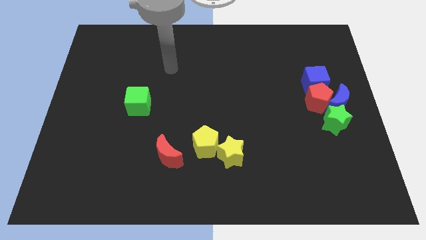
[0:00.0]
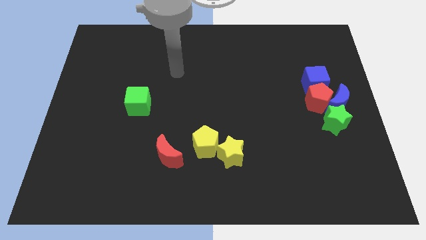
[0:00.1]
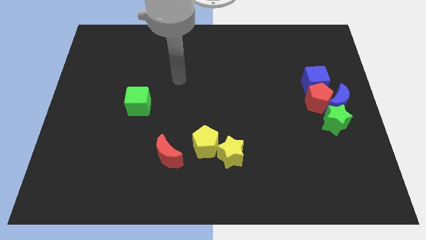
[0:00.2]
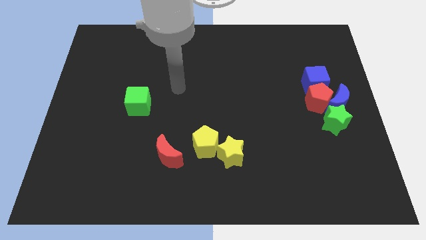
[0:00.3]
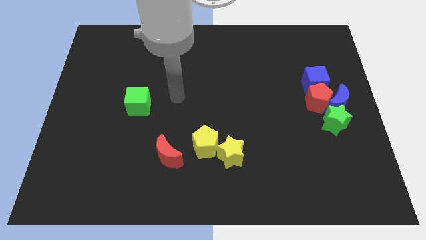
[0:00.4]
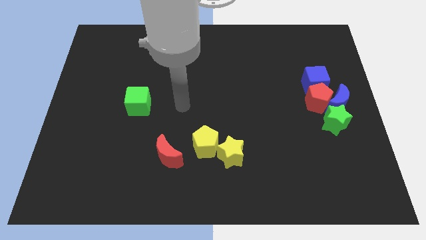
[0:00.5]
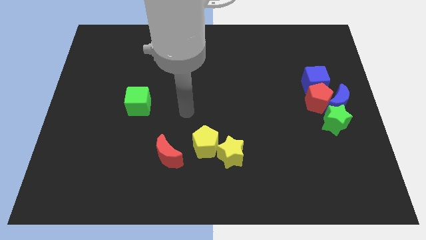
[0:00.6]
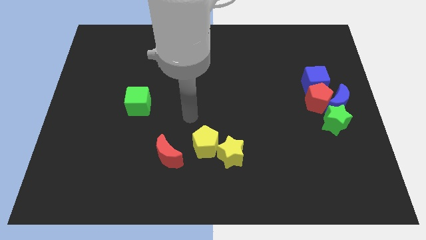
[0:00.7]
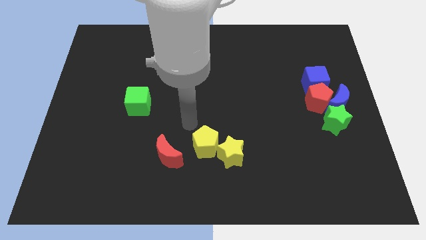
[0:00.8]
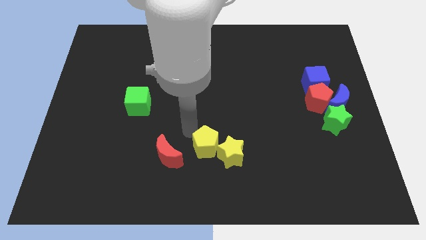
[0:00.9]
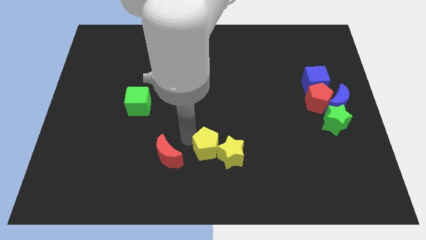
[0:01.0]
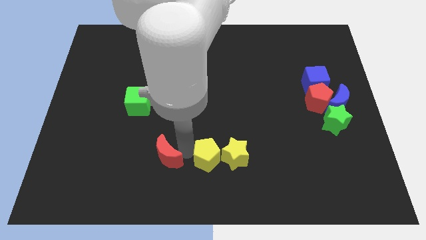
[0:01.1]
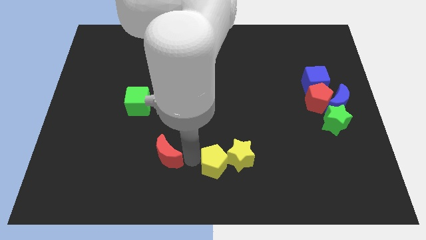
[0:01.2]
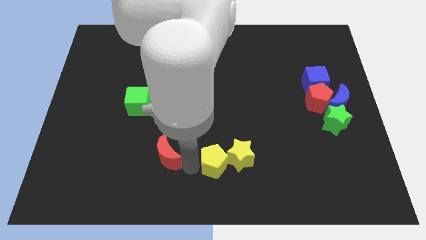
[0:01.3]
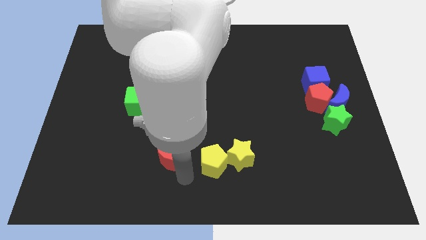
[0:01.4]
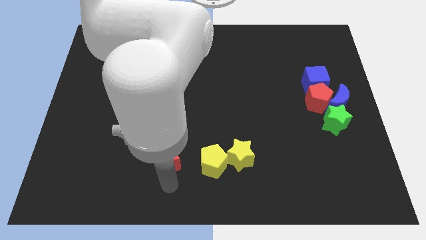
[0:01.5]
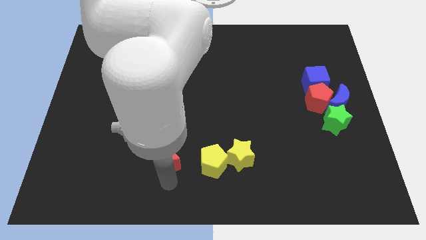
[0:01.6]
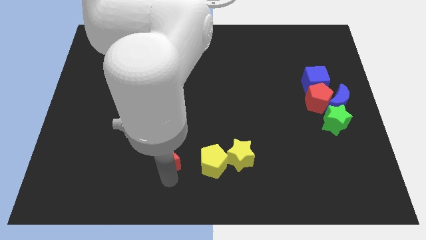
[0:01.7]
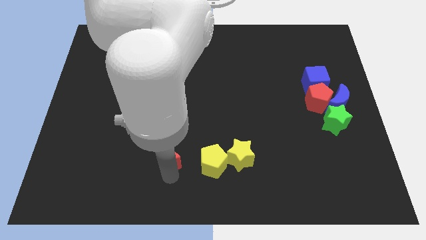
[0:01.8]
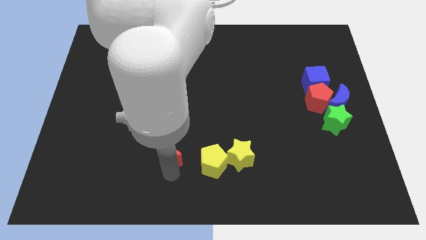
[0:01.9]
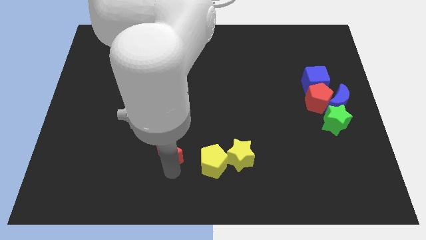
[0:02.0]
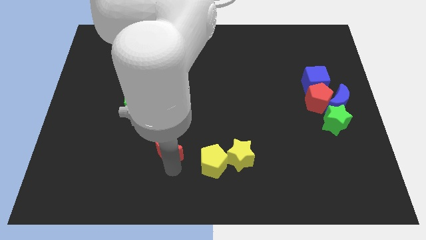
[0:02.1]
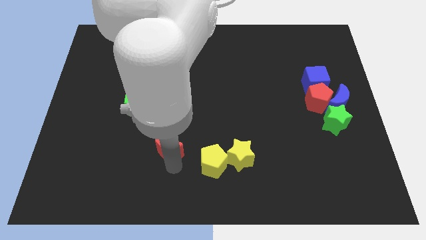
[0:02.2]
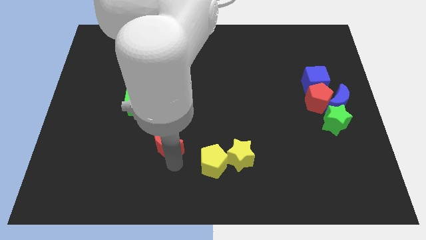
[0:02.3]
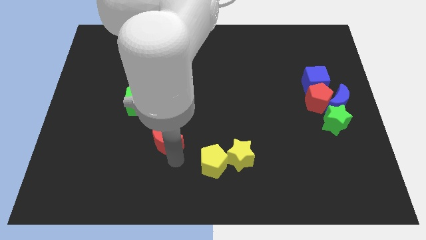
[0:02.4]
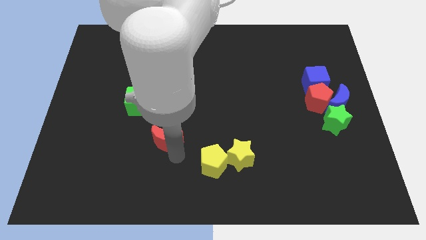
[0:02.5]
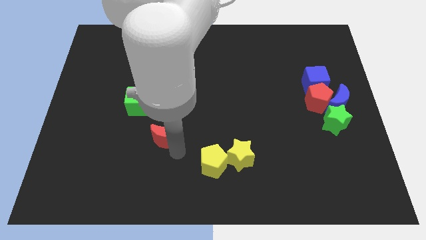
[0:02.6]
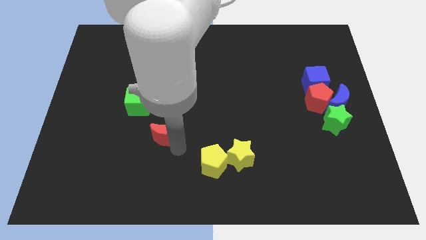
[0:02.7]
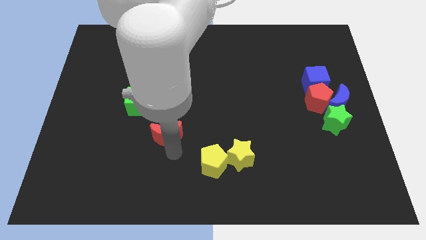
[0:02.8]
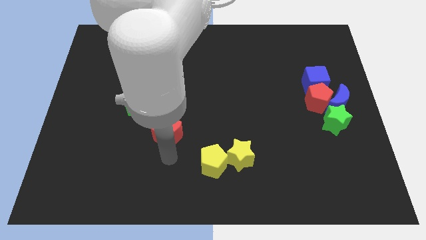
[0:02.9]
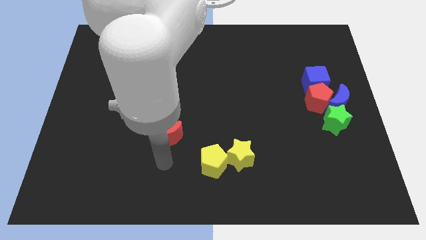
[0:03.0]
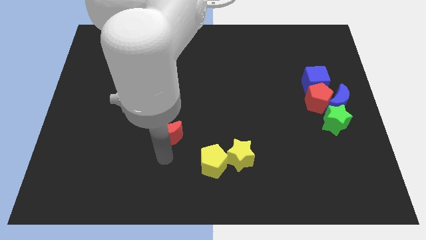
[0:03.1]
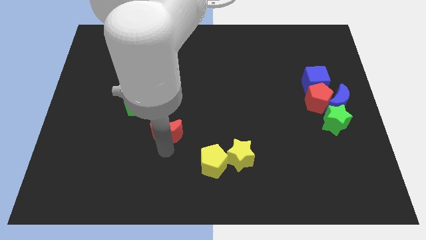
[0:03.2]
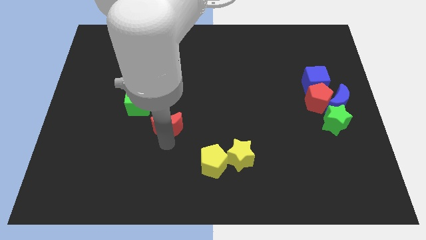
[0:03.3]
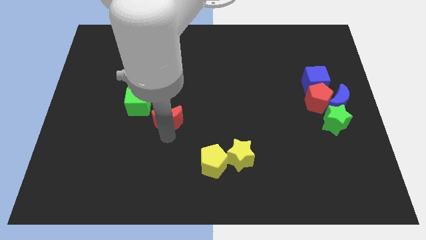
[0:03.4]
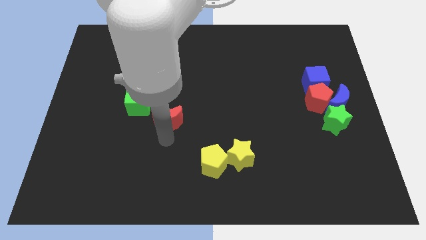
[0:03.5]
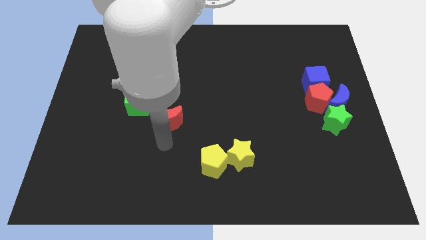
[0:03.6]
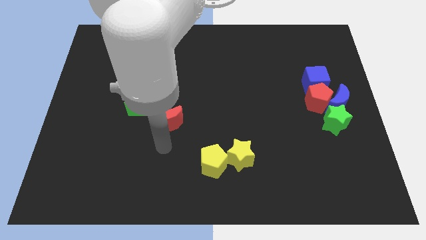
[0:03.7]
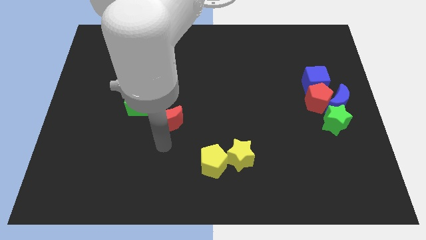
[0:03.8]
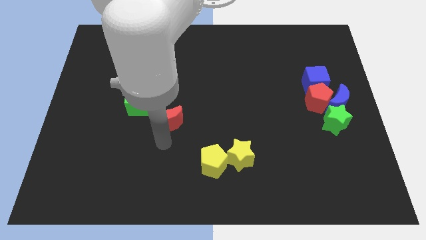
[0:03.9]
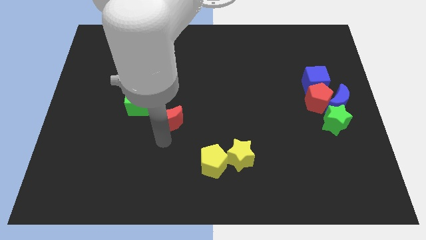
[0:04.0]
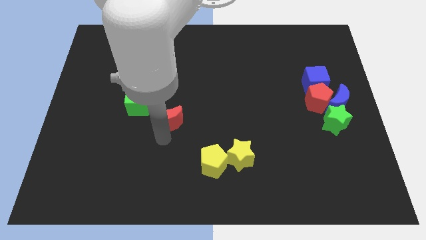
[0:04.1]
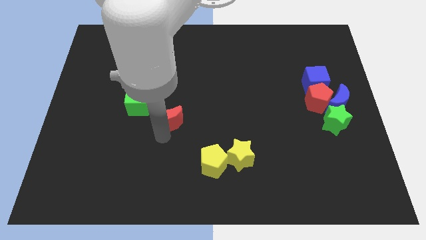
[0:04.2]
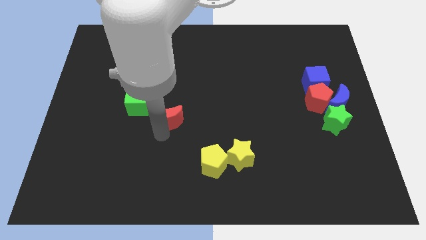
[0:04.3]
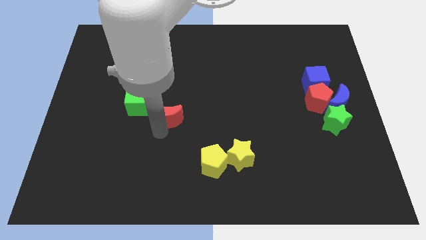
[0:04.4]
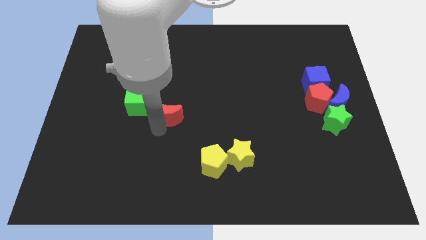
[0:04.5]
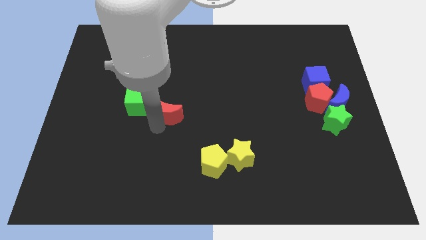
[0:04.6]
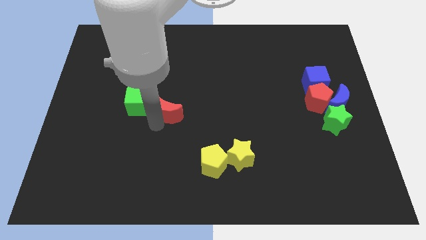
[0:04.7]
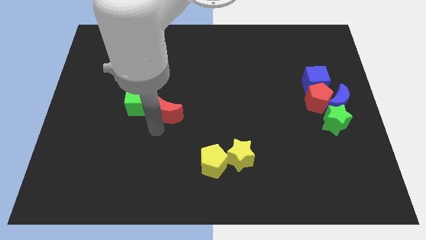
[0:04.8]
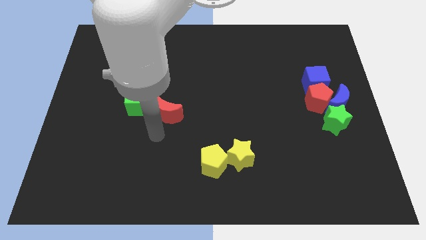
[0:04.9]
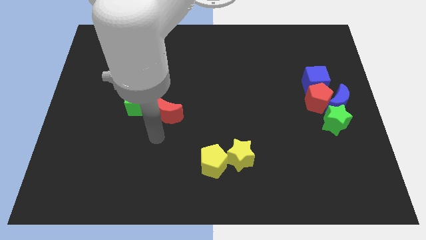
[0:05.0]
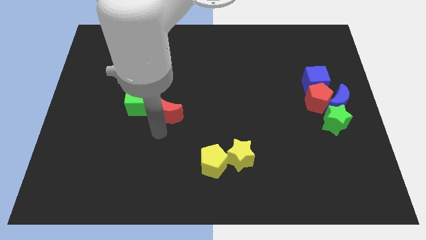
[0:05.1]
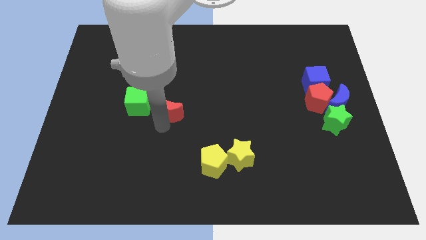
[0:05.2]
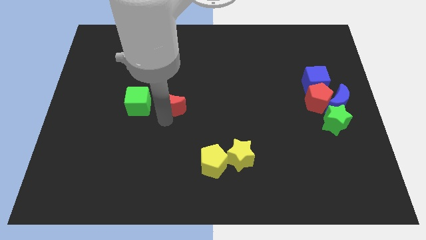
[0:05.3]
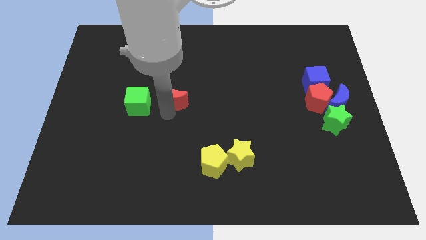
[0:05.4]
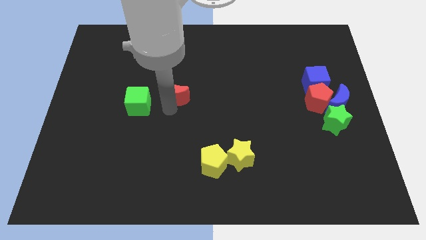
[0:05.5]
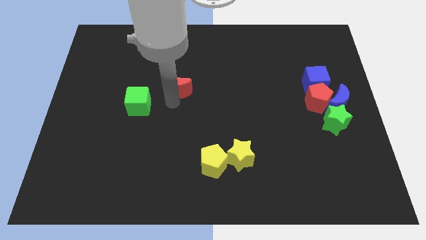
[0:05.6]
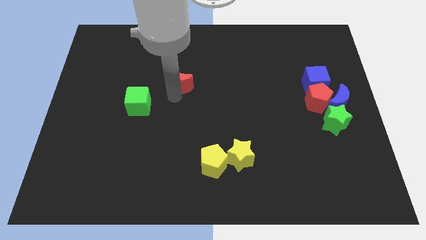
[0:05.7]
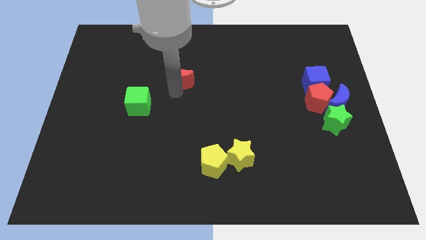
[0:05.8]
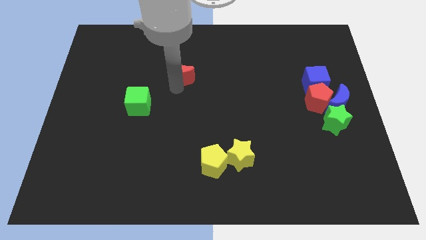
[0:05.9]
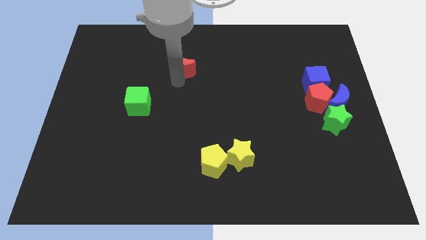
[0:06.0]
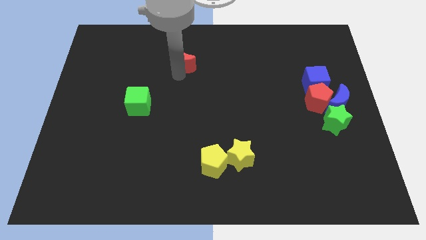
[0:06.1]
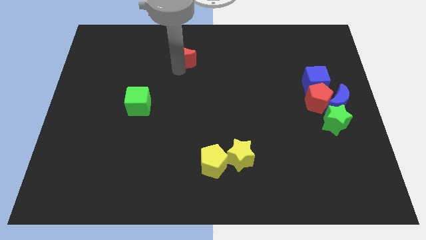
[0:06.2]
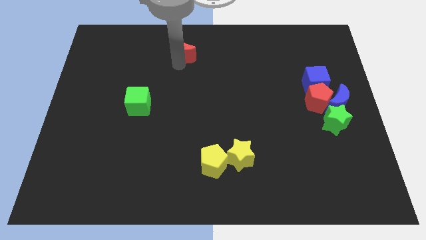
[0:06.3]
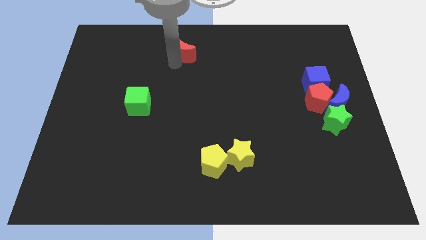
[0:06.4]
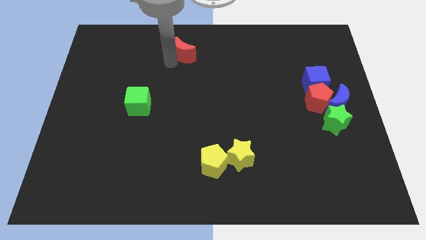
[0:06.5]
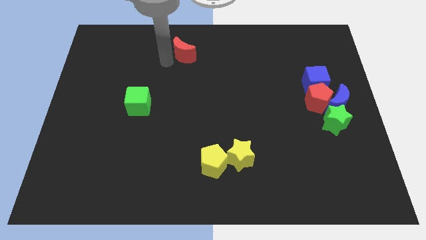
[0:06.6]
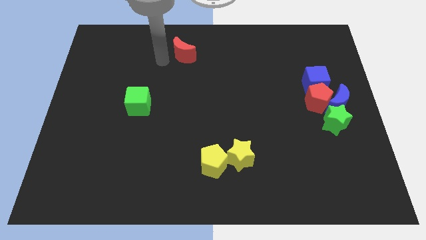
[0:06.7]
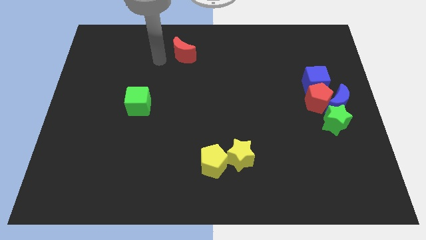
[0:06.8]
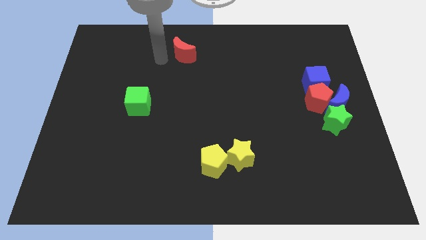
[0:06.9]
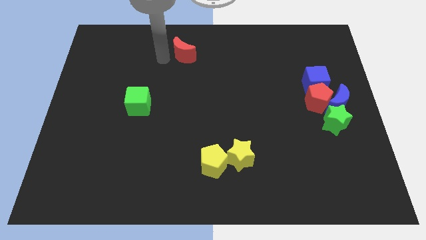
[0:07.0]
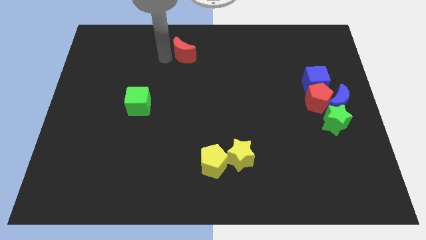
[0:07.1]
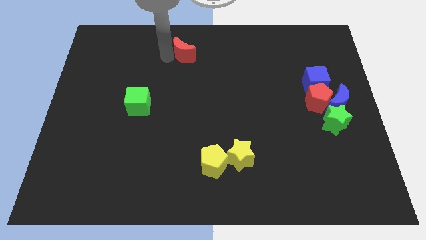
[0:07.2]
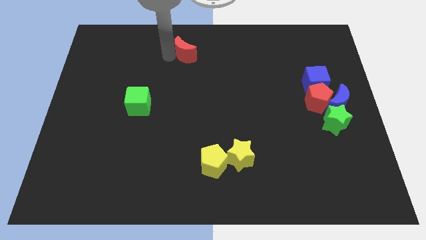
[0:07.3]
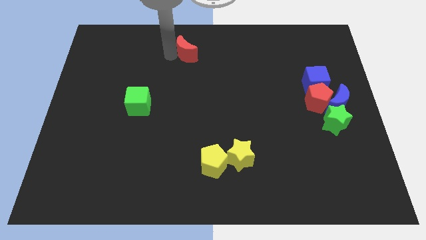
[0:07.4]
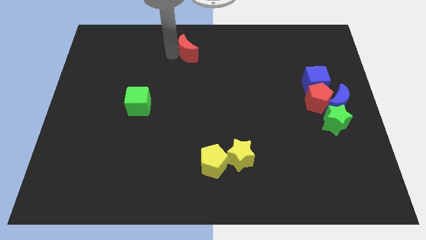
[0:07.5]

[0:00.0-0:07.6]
put the red moon to the towards your base
